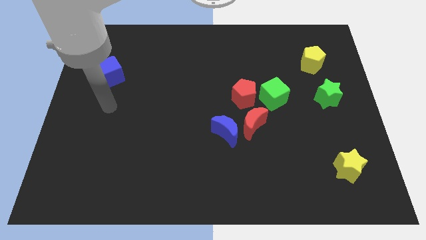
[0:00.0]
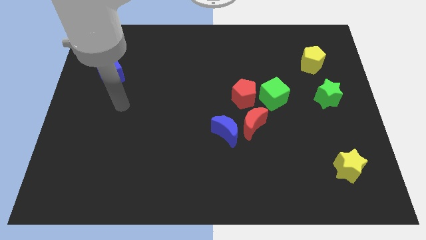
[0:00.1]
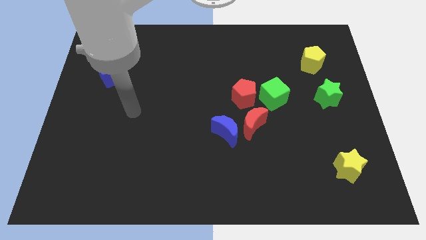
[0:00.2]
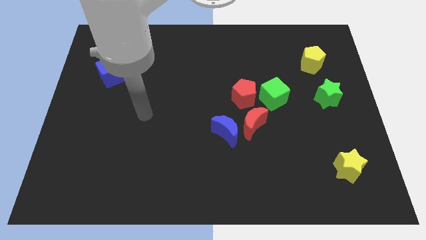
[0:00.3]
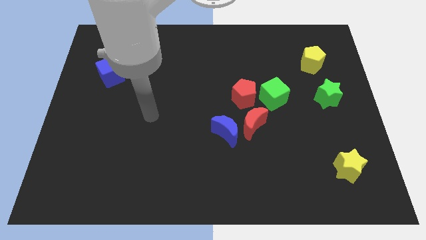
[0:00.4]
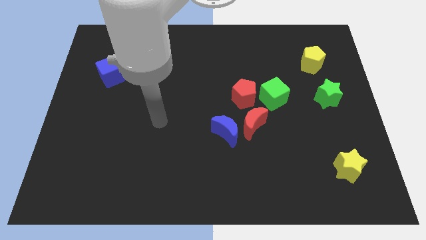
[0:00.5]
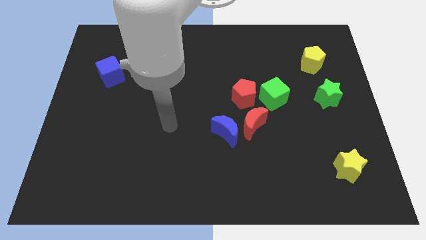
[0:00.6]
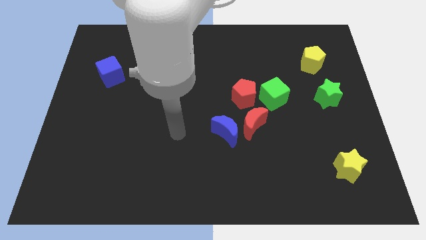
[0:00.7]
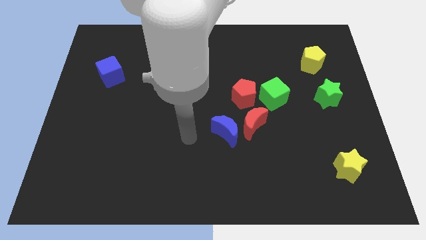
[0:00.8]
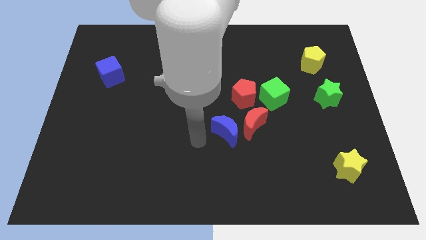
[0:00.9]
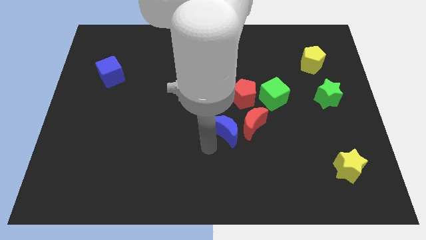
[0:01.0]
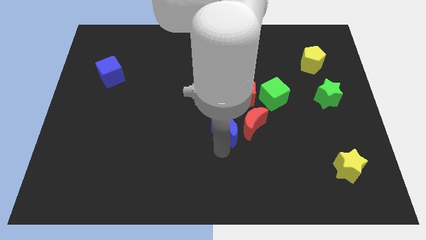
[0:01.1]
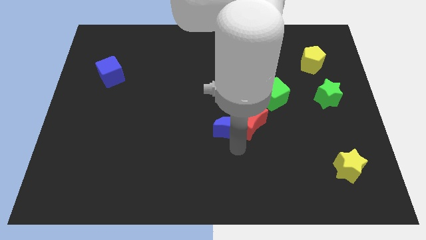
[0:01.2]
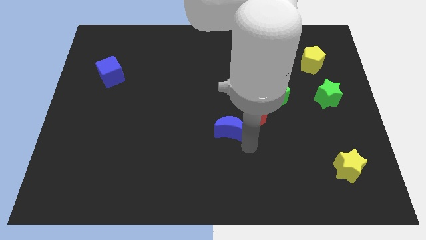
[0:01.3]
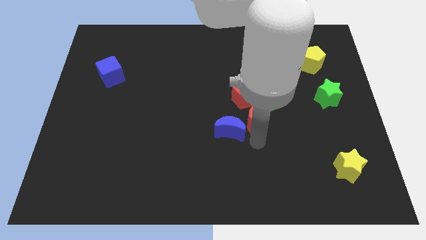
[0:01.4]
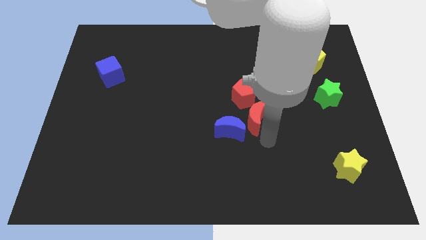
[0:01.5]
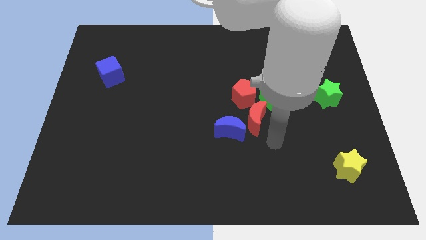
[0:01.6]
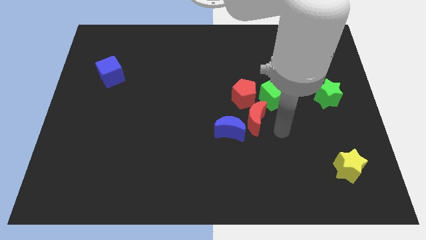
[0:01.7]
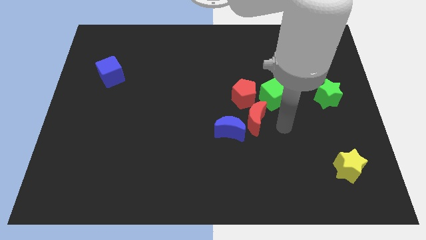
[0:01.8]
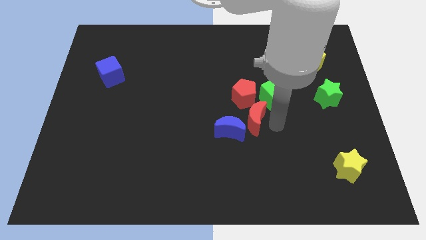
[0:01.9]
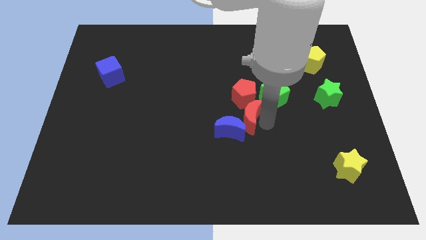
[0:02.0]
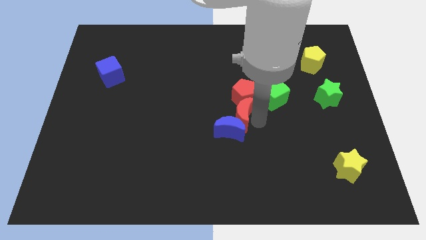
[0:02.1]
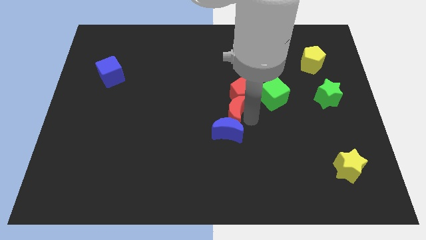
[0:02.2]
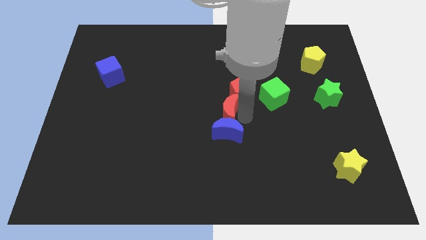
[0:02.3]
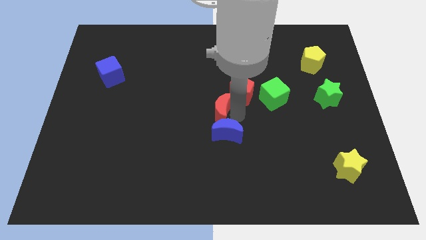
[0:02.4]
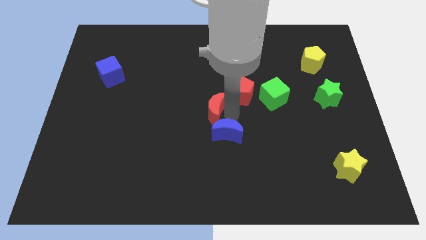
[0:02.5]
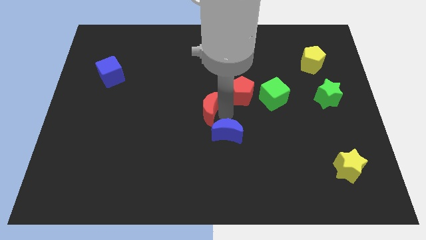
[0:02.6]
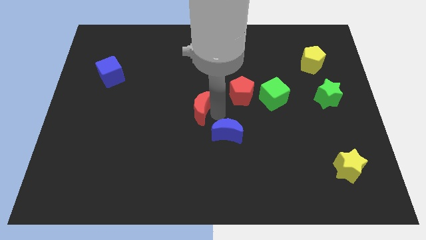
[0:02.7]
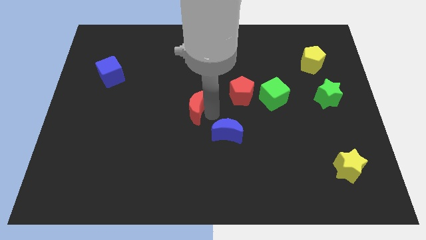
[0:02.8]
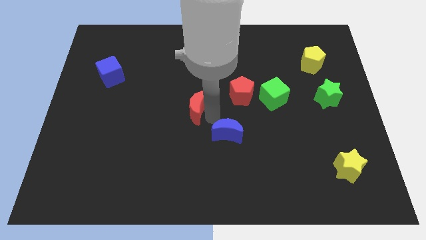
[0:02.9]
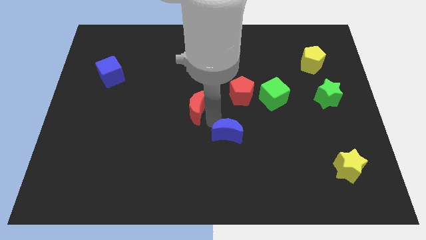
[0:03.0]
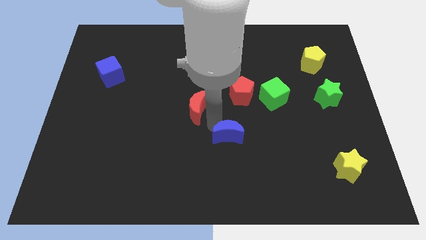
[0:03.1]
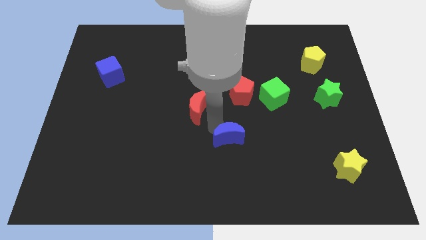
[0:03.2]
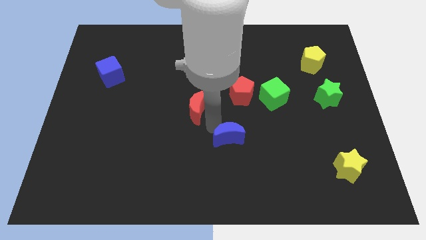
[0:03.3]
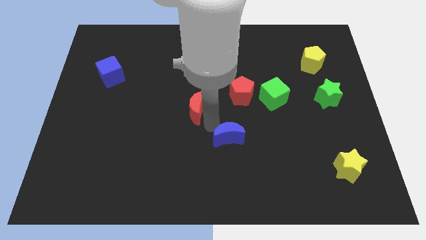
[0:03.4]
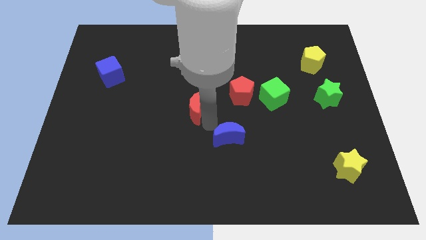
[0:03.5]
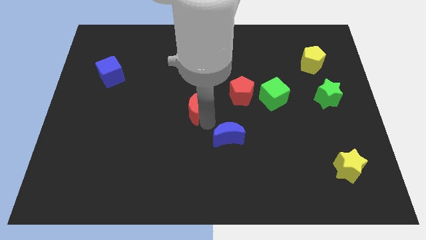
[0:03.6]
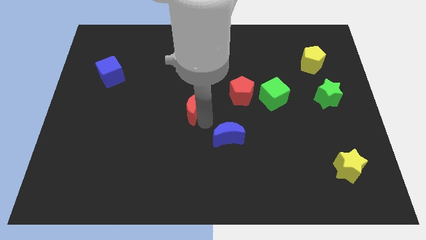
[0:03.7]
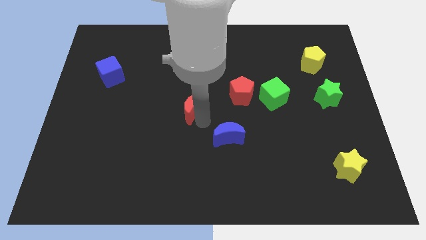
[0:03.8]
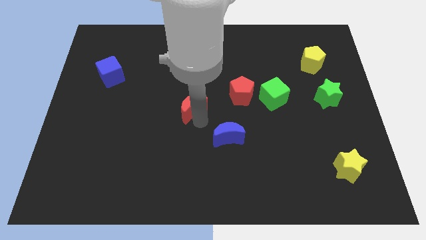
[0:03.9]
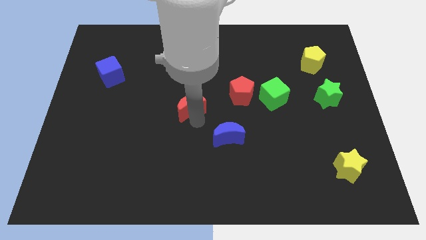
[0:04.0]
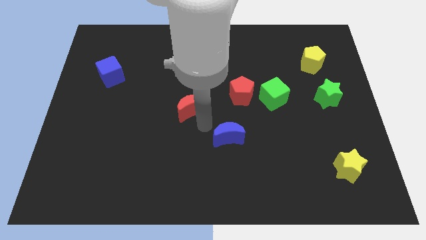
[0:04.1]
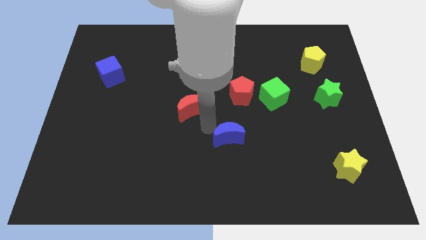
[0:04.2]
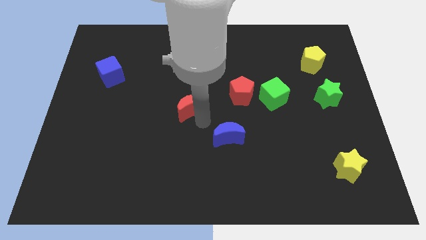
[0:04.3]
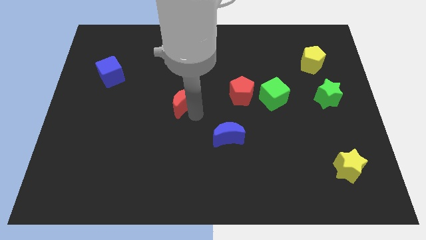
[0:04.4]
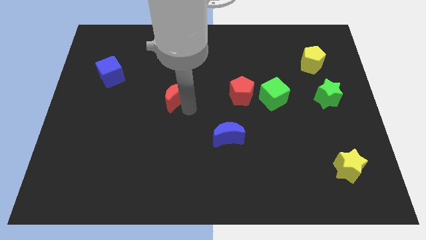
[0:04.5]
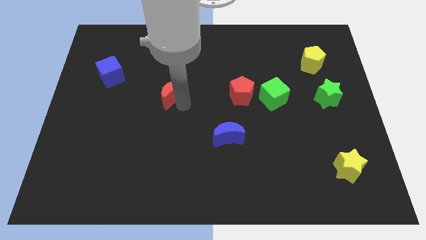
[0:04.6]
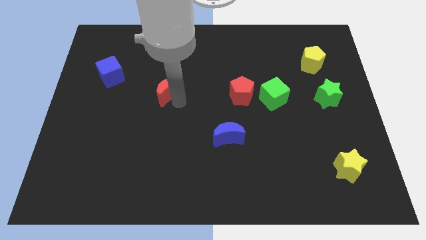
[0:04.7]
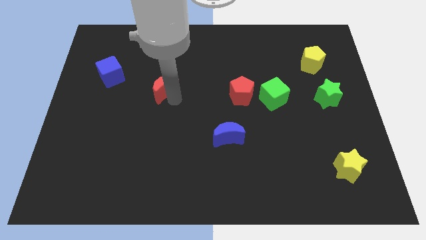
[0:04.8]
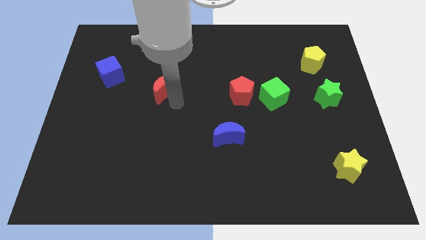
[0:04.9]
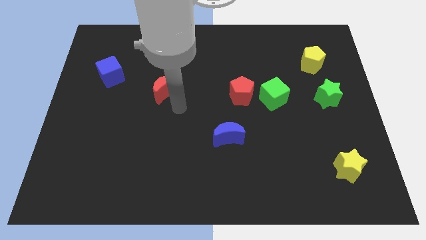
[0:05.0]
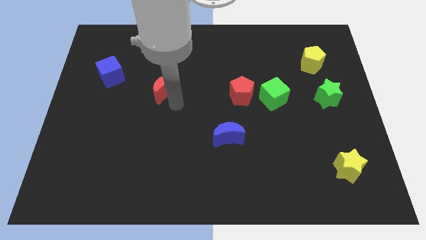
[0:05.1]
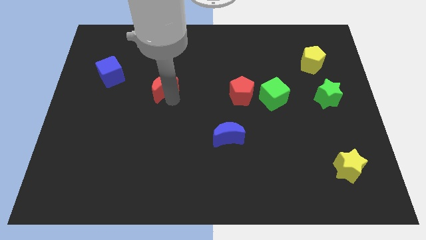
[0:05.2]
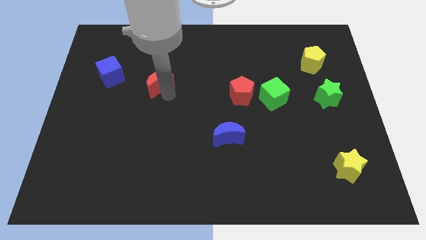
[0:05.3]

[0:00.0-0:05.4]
move the red moon just right of the blue cube
